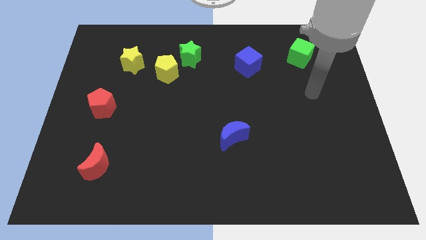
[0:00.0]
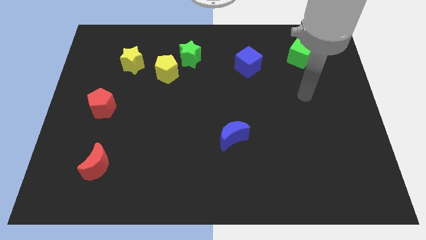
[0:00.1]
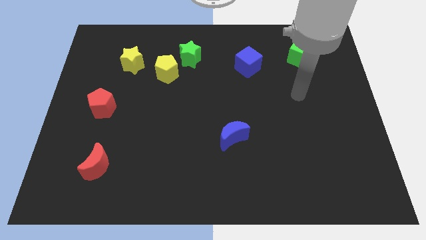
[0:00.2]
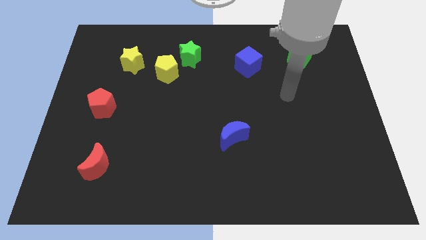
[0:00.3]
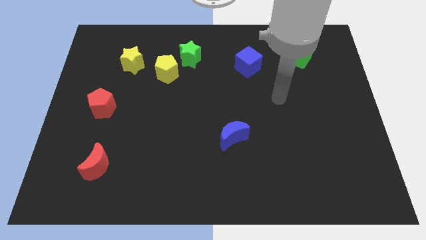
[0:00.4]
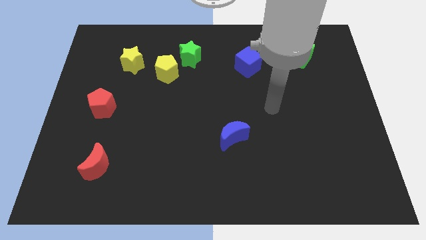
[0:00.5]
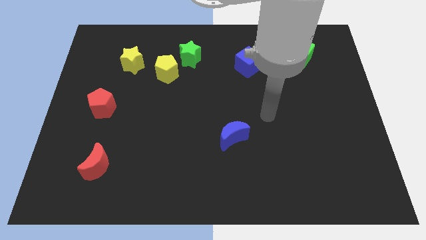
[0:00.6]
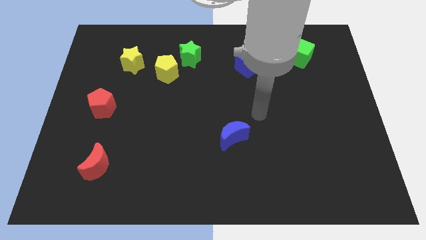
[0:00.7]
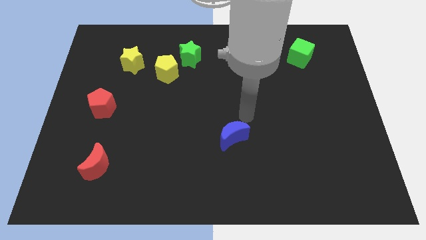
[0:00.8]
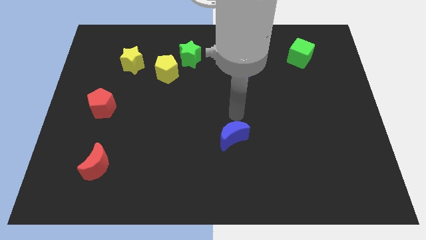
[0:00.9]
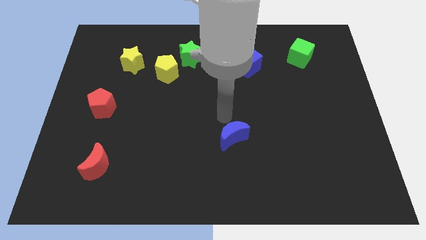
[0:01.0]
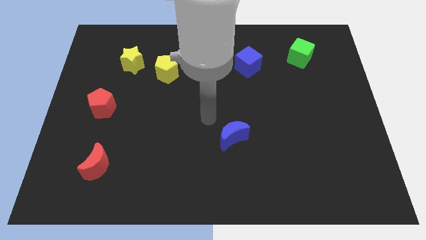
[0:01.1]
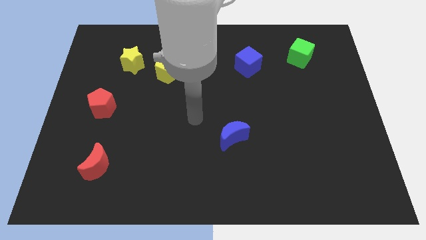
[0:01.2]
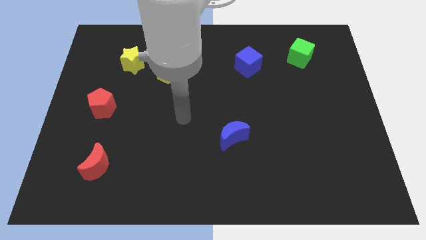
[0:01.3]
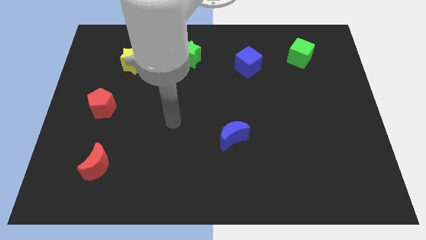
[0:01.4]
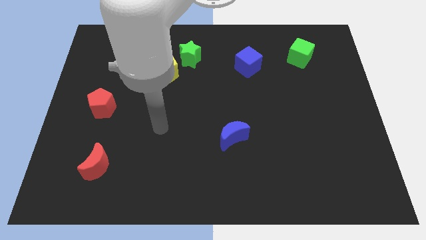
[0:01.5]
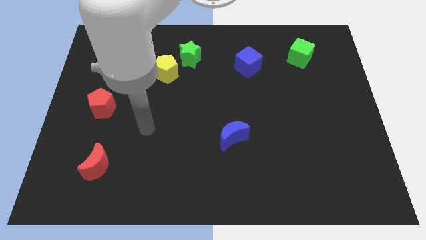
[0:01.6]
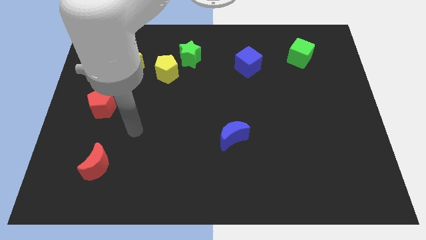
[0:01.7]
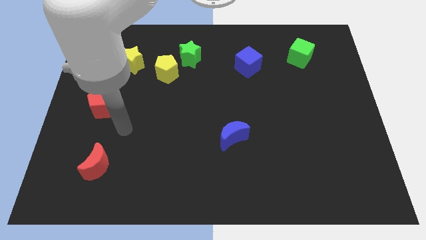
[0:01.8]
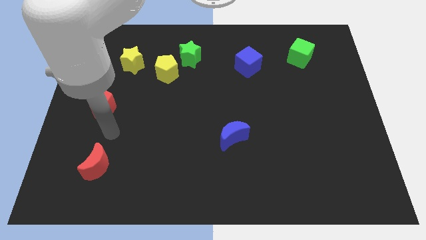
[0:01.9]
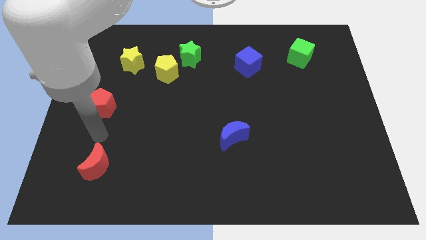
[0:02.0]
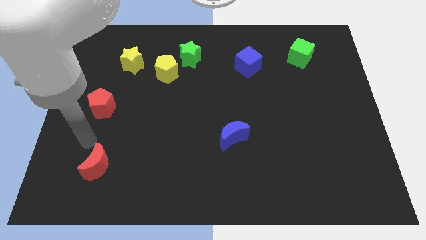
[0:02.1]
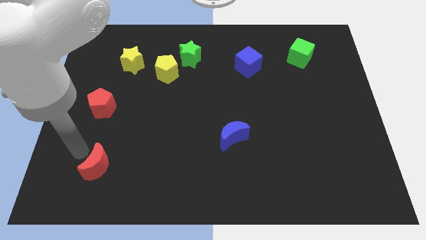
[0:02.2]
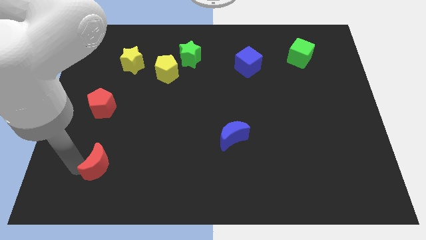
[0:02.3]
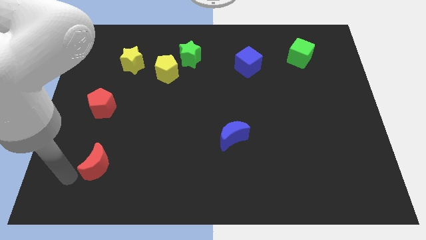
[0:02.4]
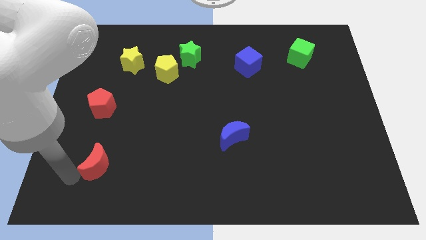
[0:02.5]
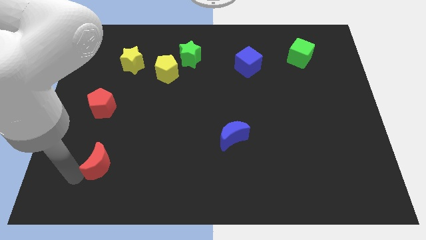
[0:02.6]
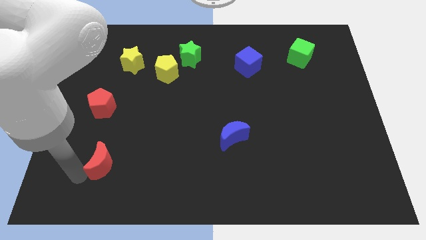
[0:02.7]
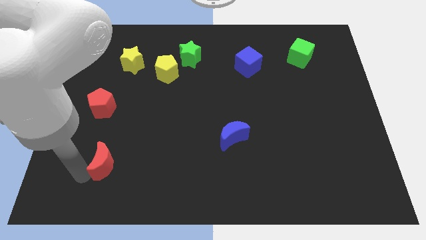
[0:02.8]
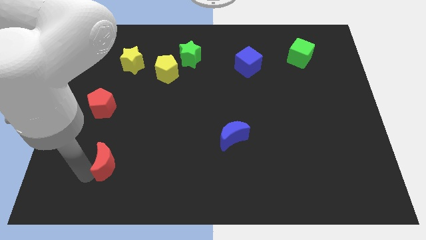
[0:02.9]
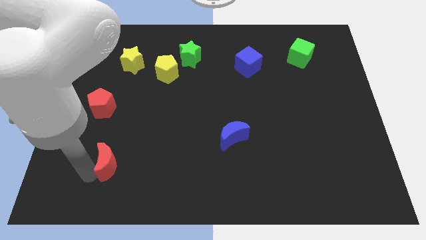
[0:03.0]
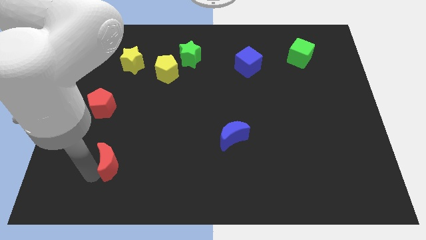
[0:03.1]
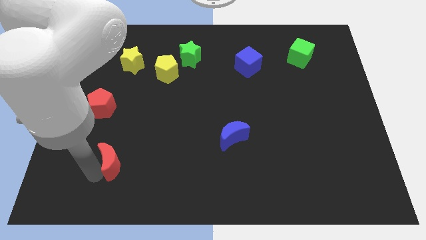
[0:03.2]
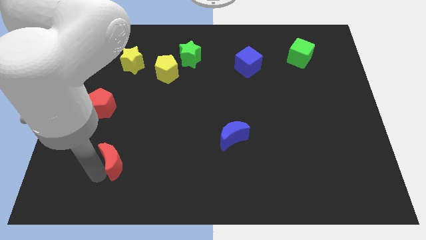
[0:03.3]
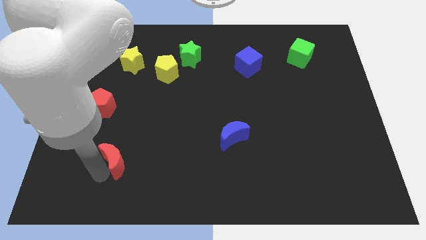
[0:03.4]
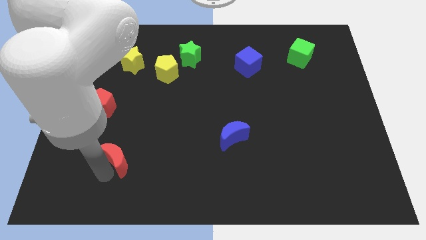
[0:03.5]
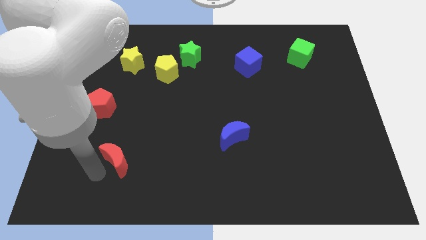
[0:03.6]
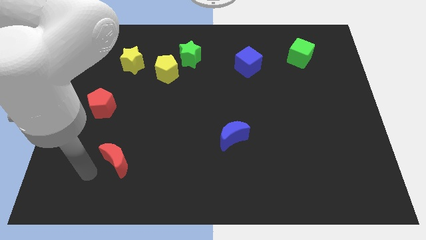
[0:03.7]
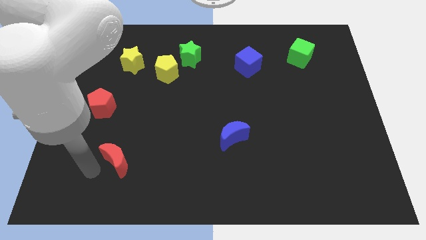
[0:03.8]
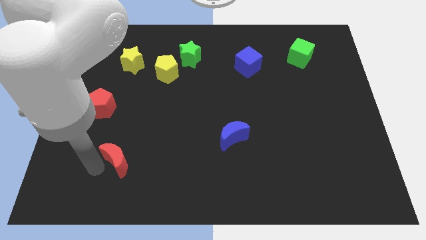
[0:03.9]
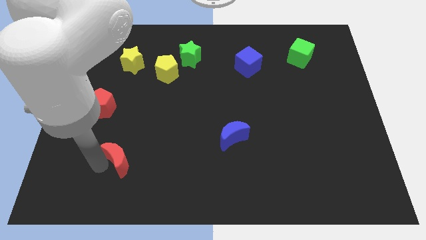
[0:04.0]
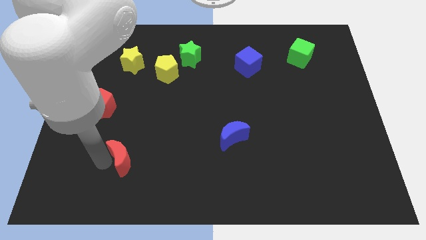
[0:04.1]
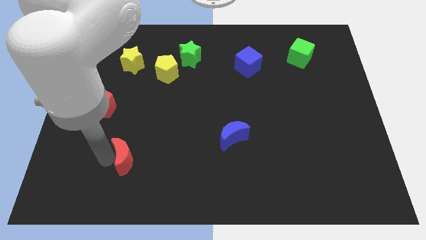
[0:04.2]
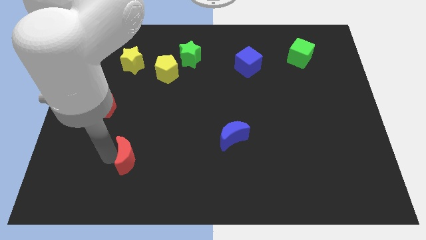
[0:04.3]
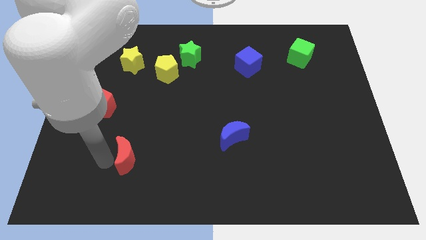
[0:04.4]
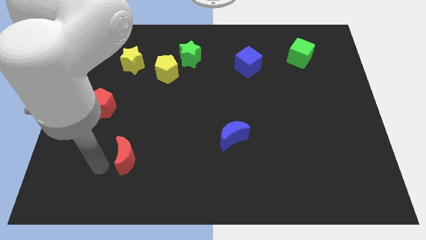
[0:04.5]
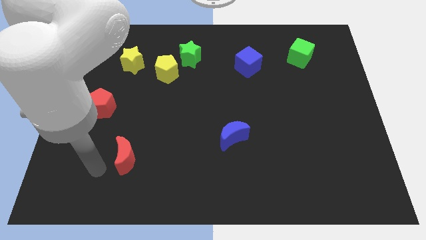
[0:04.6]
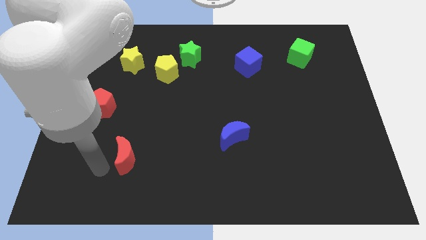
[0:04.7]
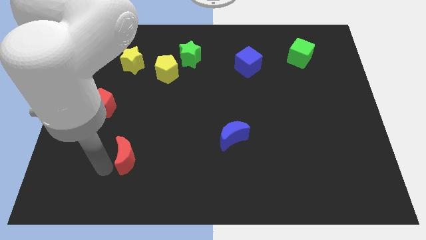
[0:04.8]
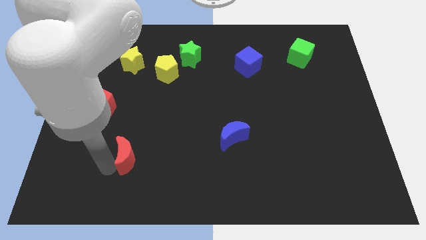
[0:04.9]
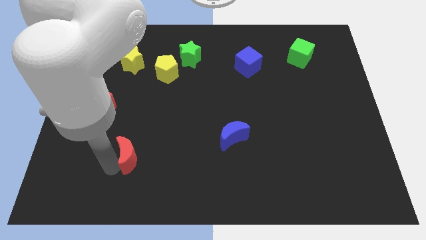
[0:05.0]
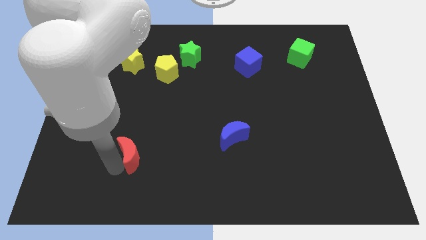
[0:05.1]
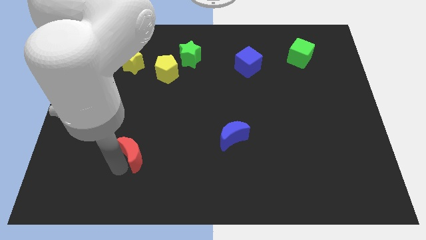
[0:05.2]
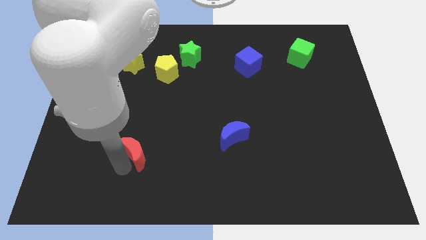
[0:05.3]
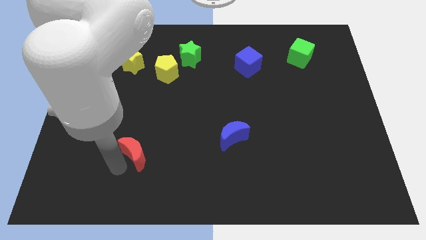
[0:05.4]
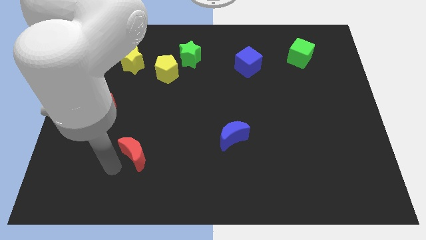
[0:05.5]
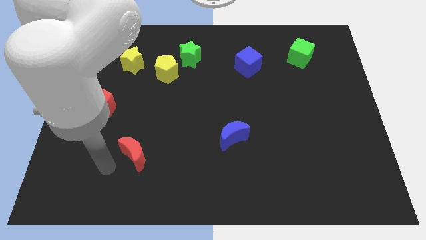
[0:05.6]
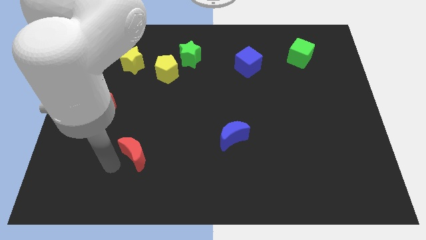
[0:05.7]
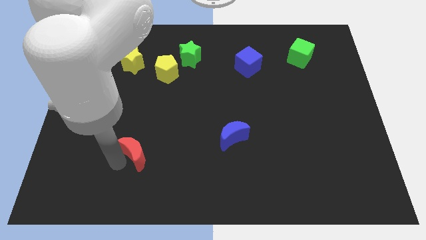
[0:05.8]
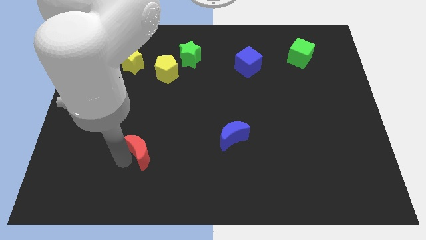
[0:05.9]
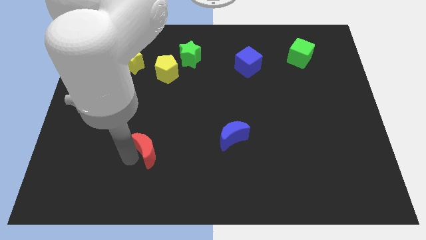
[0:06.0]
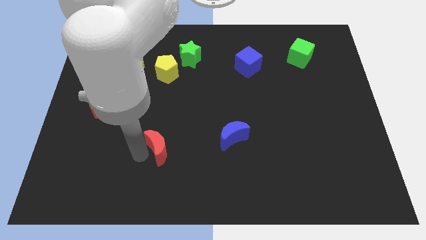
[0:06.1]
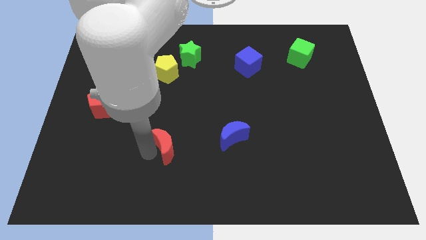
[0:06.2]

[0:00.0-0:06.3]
move the red moon to the left of the blue moon

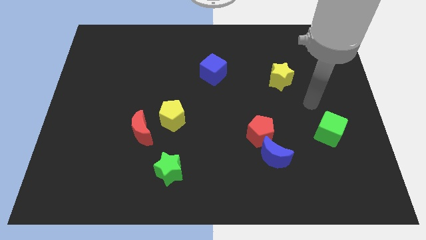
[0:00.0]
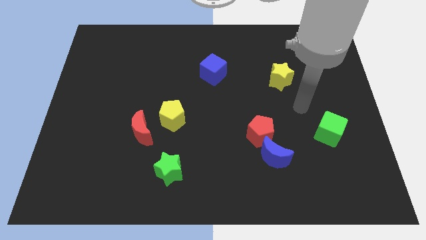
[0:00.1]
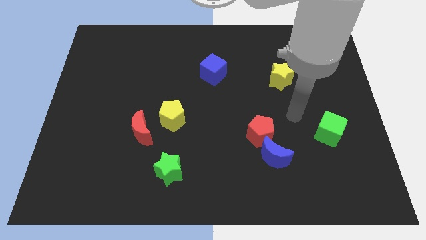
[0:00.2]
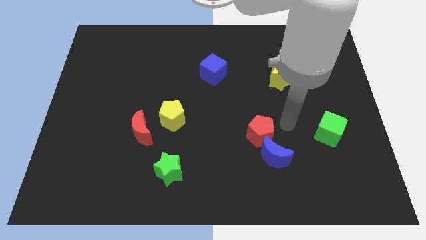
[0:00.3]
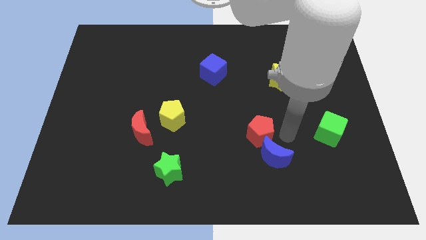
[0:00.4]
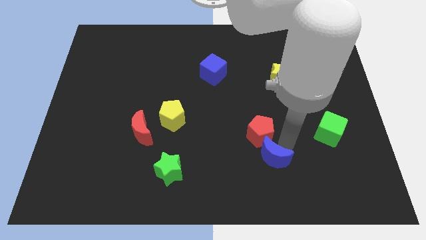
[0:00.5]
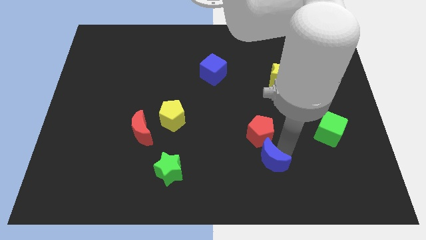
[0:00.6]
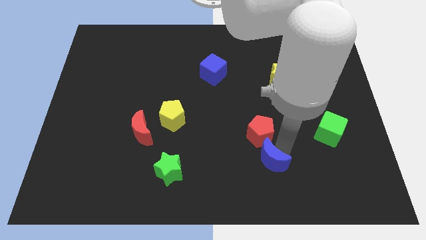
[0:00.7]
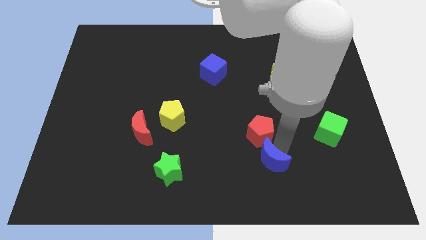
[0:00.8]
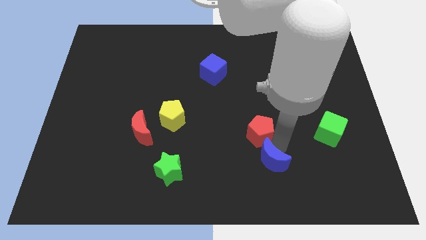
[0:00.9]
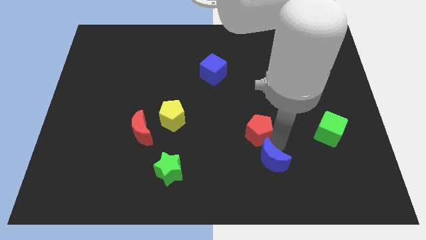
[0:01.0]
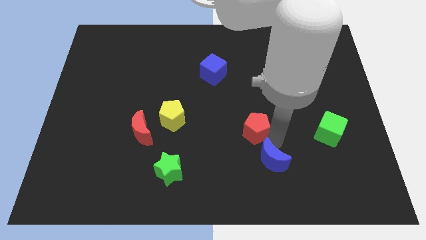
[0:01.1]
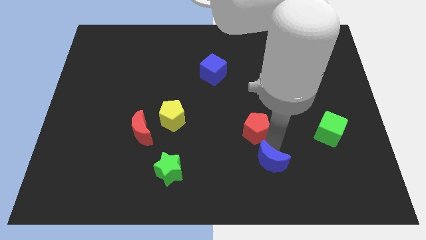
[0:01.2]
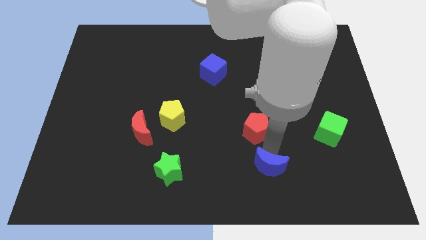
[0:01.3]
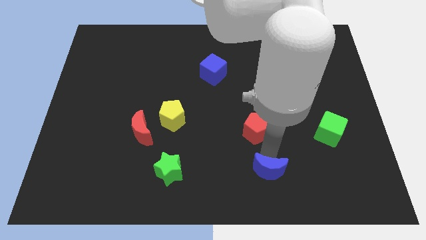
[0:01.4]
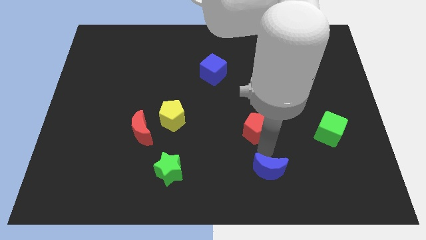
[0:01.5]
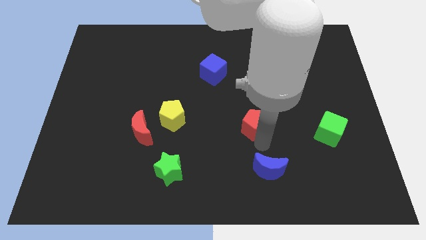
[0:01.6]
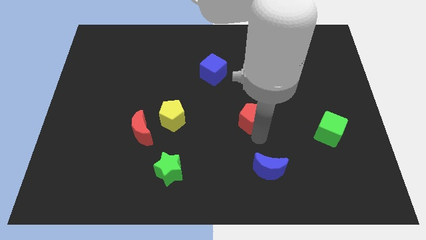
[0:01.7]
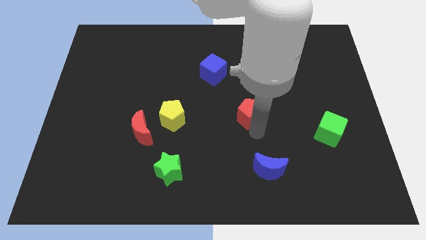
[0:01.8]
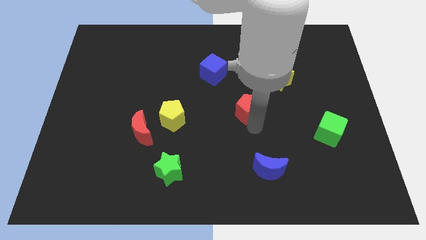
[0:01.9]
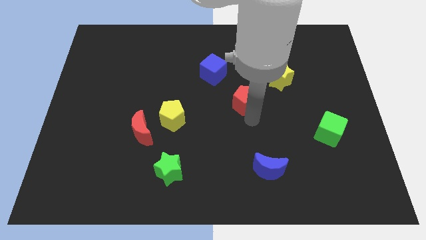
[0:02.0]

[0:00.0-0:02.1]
put the red pentagon to the bottom right of the blue cube
